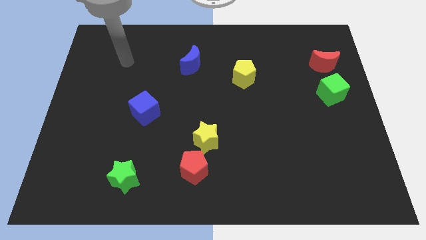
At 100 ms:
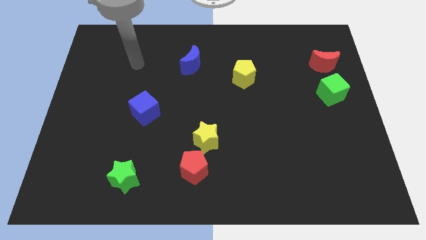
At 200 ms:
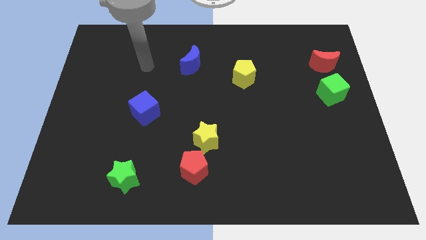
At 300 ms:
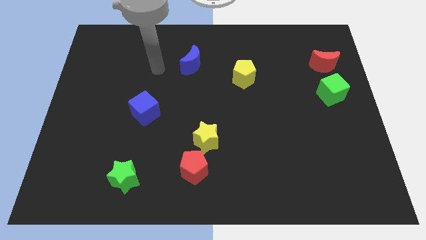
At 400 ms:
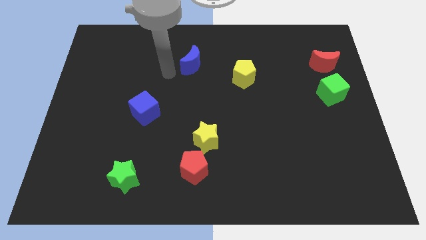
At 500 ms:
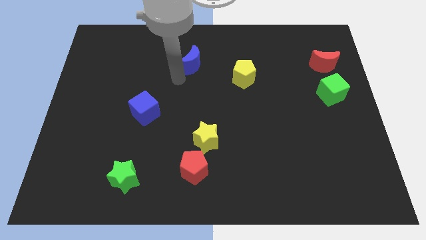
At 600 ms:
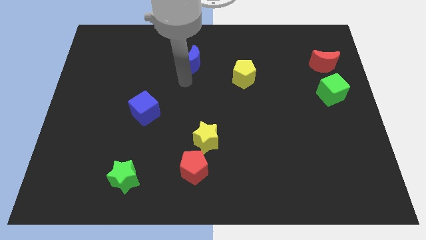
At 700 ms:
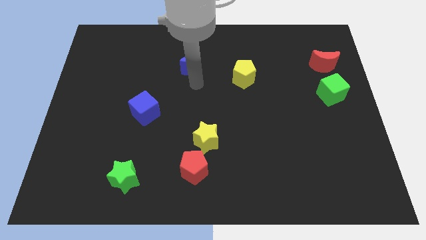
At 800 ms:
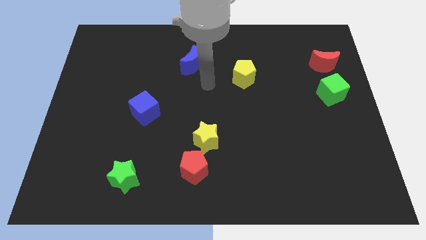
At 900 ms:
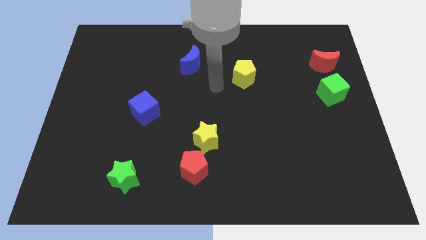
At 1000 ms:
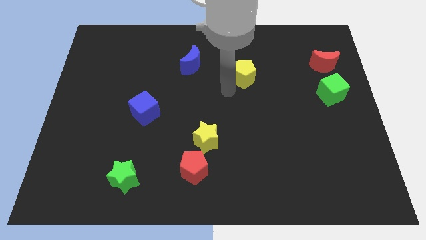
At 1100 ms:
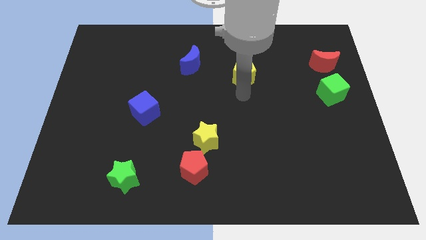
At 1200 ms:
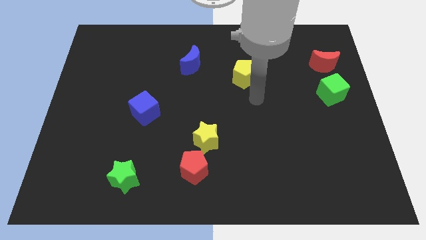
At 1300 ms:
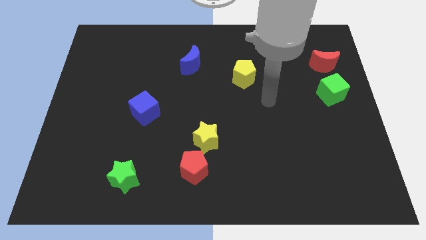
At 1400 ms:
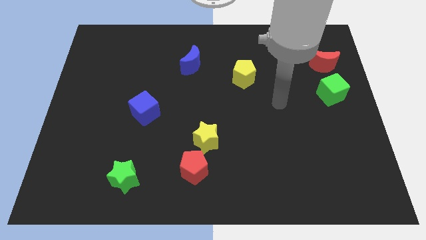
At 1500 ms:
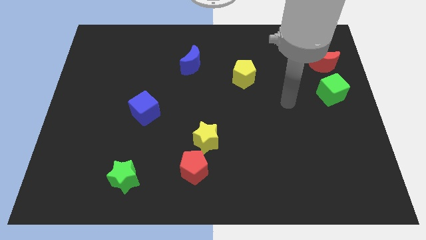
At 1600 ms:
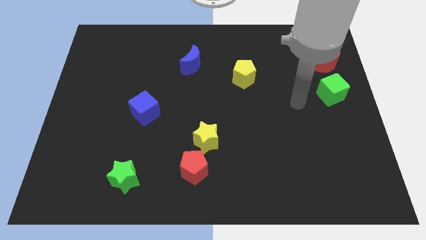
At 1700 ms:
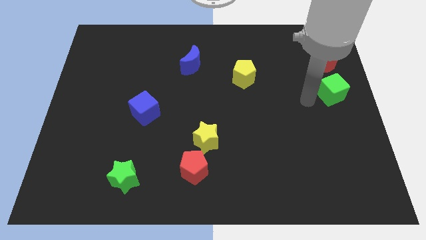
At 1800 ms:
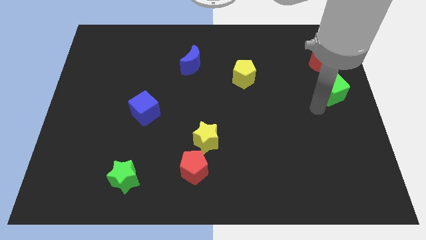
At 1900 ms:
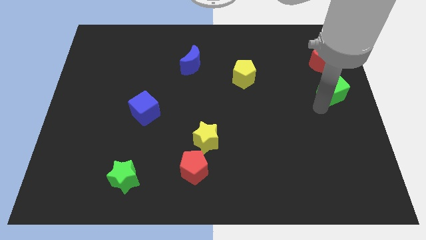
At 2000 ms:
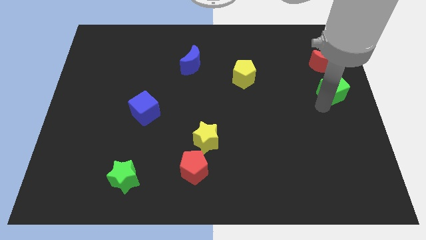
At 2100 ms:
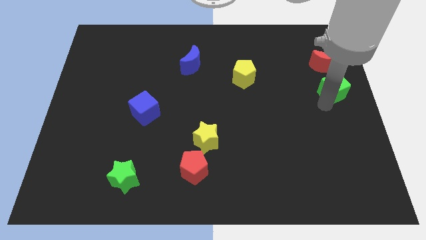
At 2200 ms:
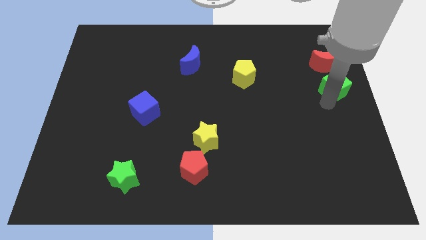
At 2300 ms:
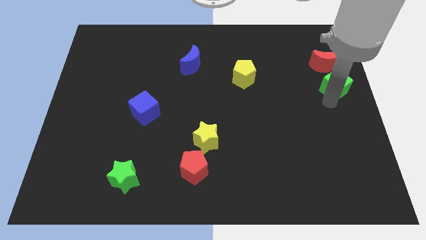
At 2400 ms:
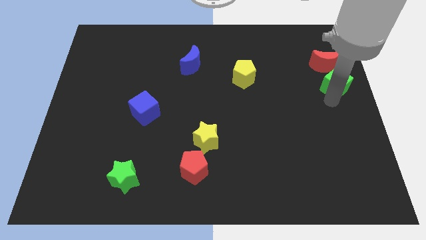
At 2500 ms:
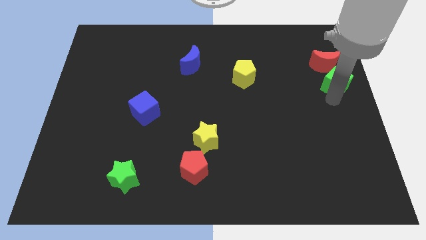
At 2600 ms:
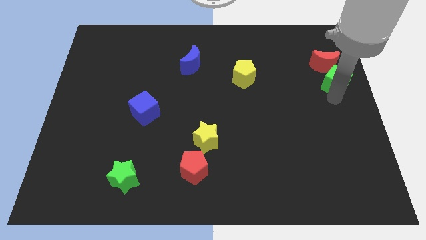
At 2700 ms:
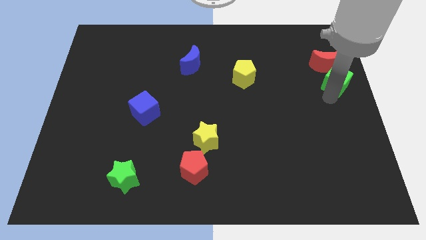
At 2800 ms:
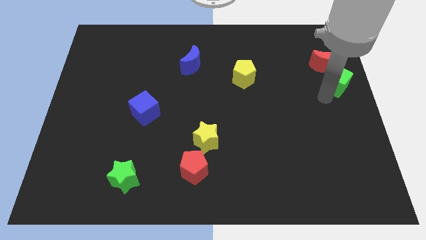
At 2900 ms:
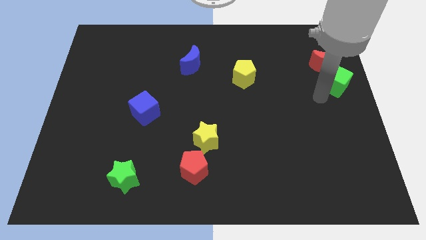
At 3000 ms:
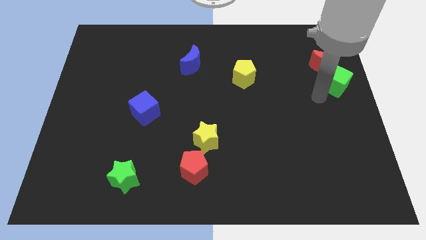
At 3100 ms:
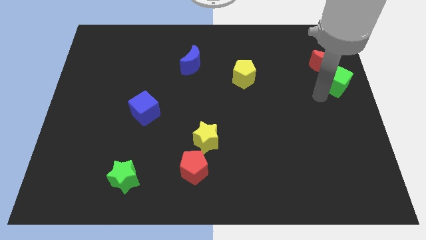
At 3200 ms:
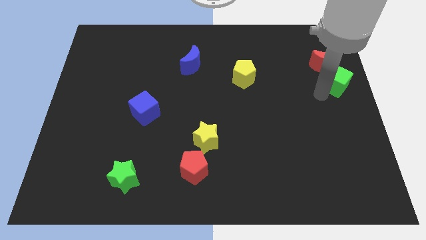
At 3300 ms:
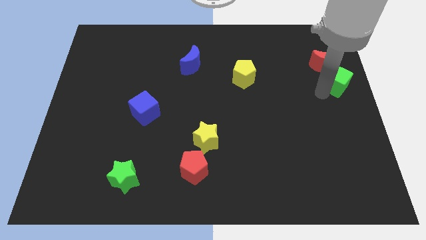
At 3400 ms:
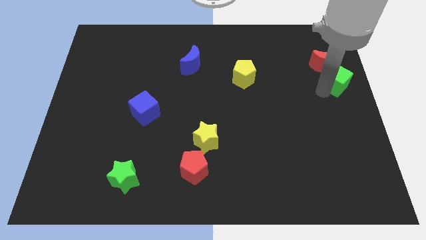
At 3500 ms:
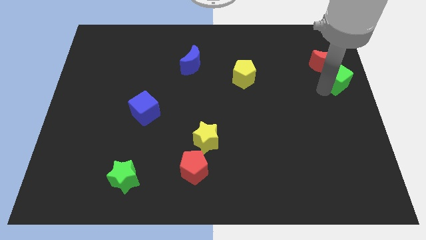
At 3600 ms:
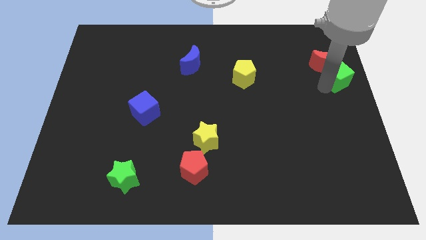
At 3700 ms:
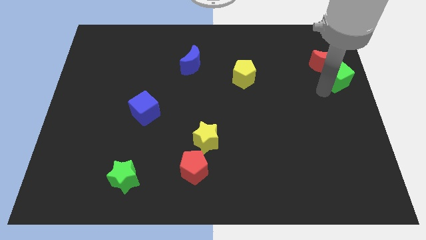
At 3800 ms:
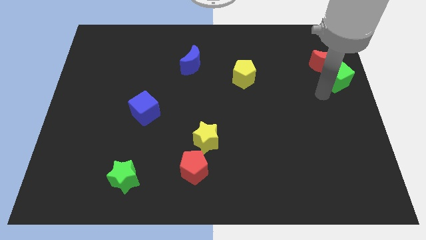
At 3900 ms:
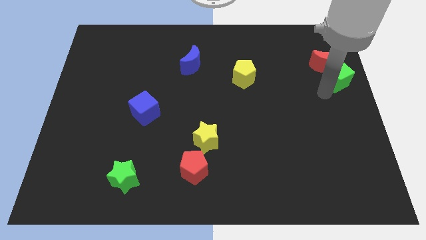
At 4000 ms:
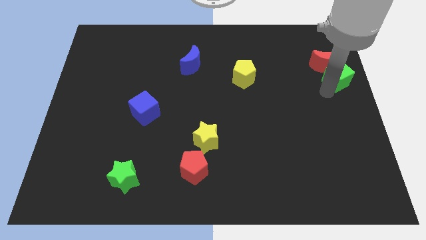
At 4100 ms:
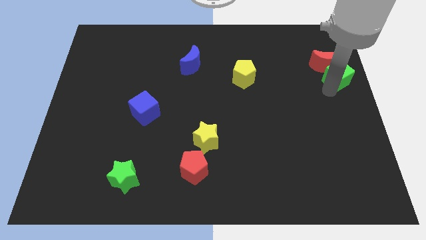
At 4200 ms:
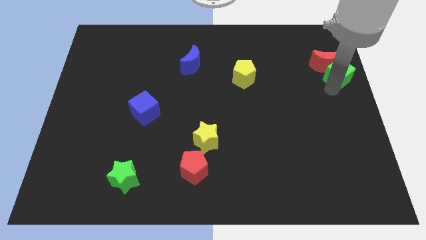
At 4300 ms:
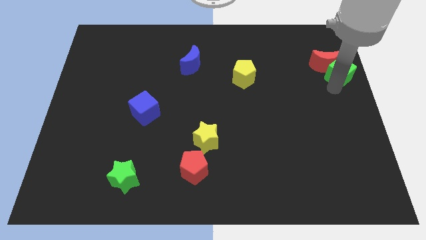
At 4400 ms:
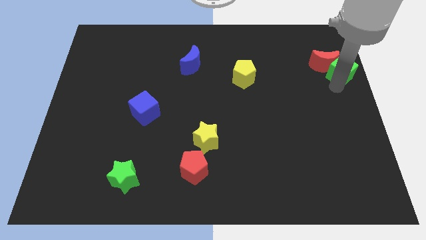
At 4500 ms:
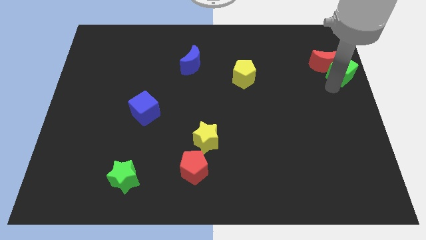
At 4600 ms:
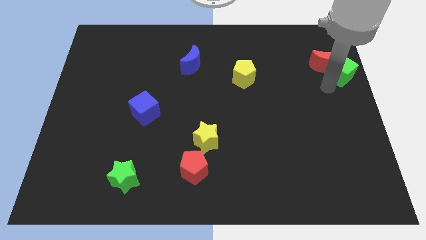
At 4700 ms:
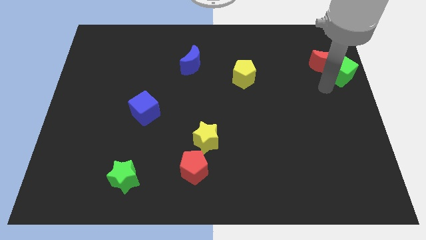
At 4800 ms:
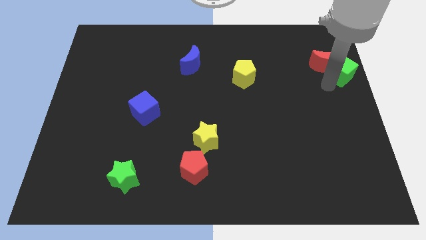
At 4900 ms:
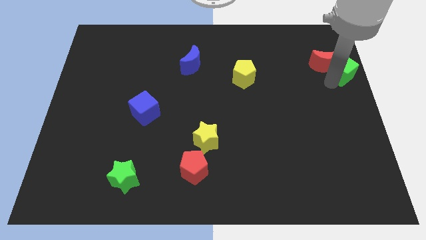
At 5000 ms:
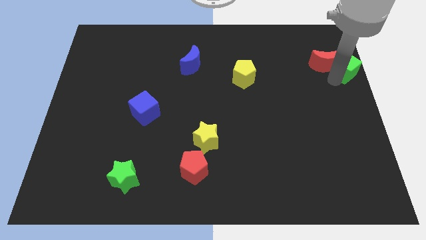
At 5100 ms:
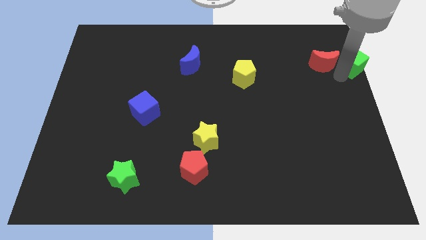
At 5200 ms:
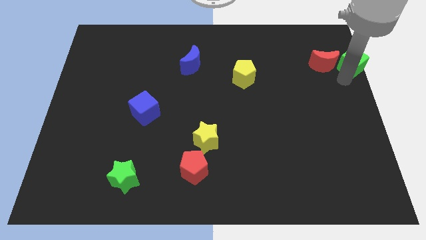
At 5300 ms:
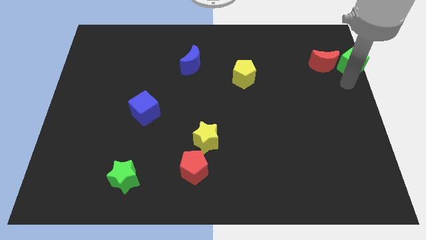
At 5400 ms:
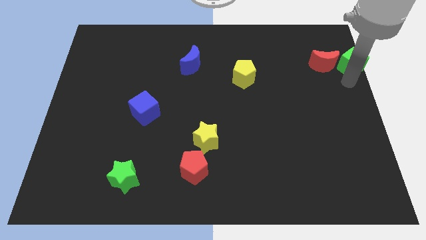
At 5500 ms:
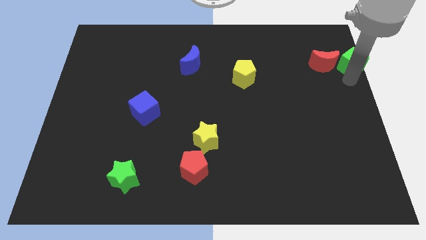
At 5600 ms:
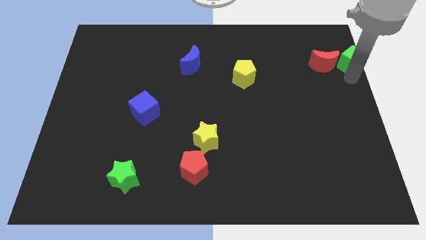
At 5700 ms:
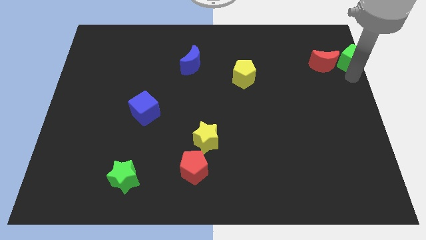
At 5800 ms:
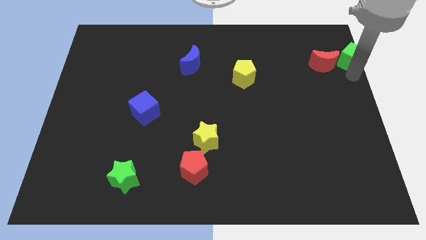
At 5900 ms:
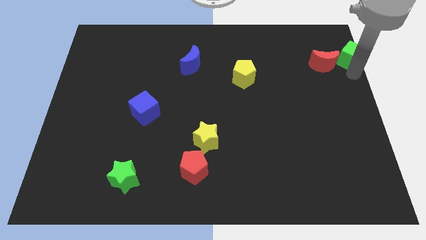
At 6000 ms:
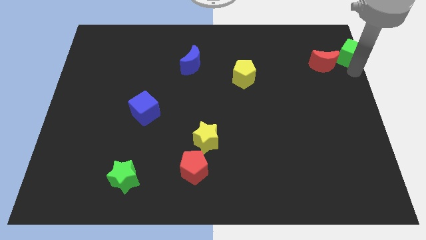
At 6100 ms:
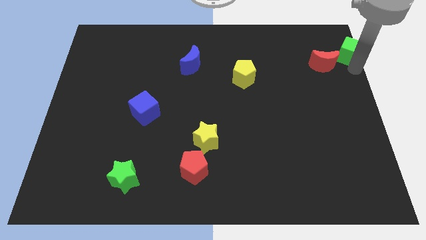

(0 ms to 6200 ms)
push the green cube to the top right of the board

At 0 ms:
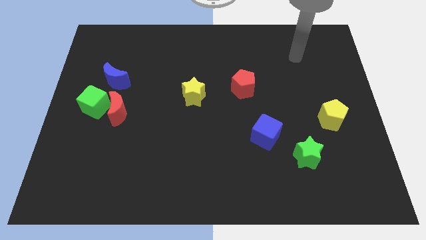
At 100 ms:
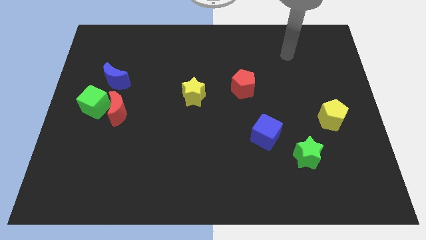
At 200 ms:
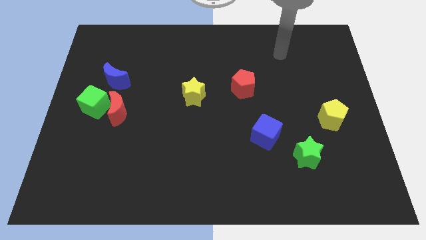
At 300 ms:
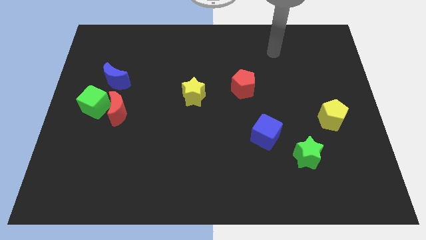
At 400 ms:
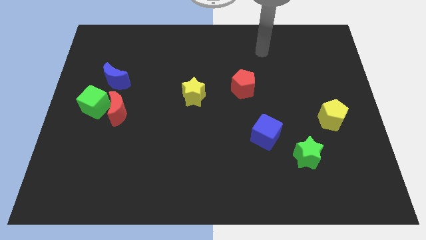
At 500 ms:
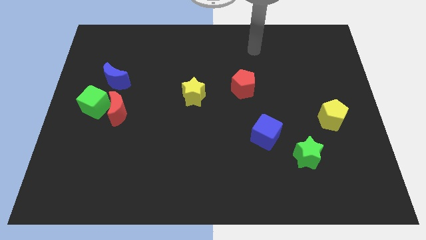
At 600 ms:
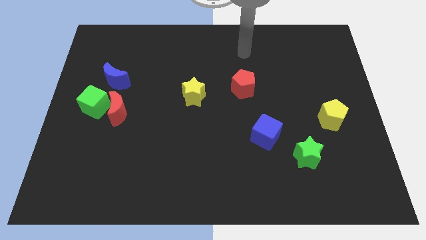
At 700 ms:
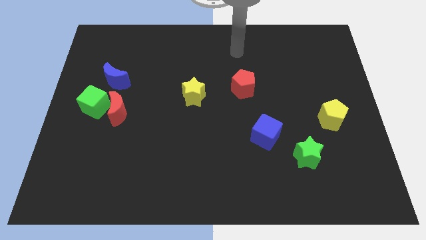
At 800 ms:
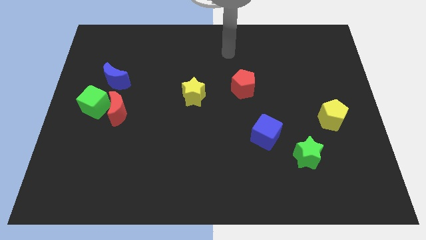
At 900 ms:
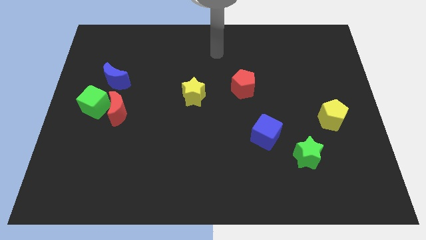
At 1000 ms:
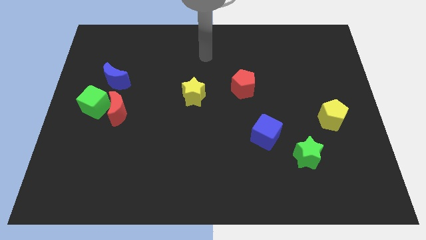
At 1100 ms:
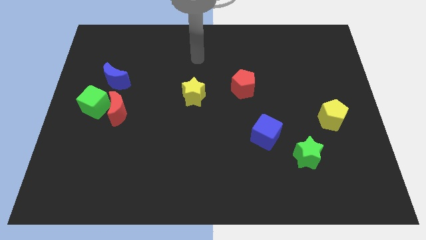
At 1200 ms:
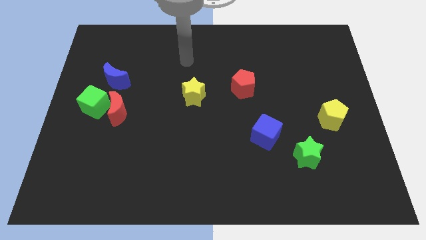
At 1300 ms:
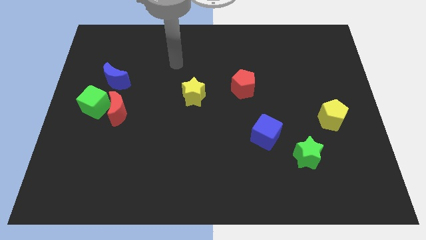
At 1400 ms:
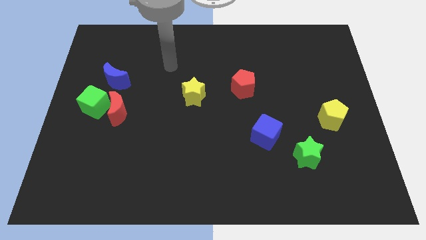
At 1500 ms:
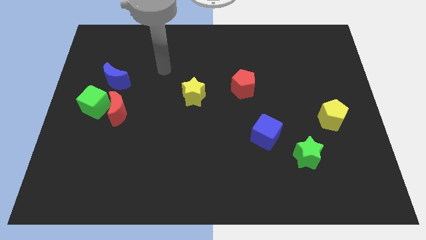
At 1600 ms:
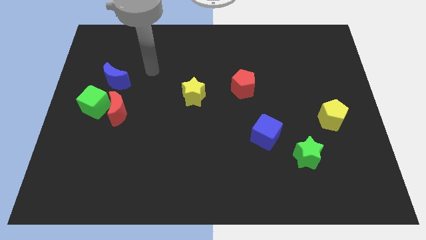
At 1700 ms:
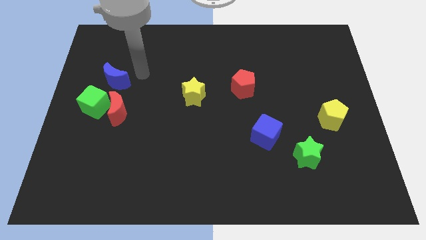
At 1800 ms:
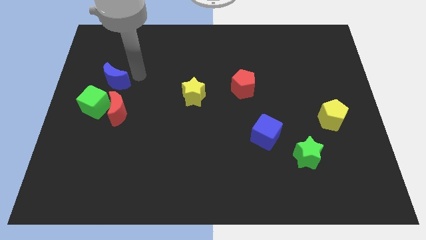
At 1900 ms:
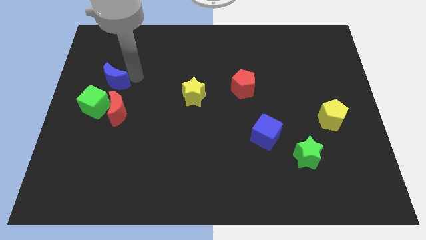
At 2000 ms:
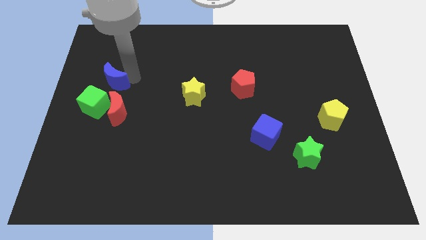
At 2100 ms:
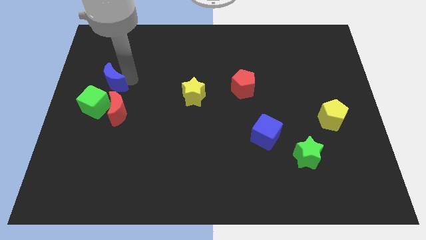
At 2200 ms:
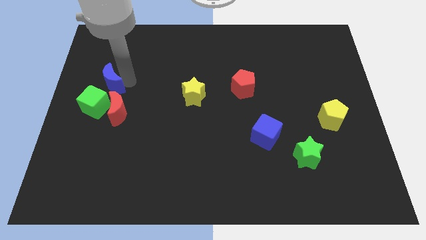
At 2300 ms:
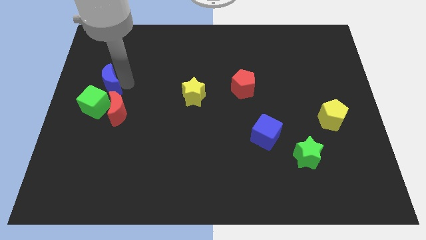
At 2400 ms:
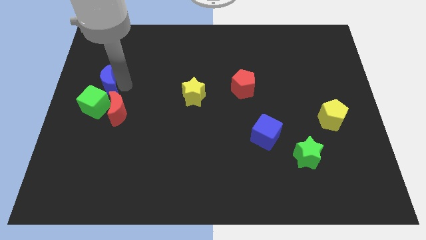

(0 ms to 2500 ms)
slide the blue moon to the left side
